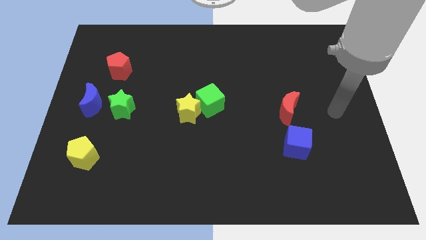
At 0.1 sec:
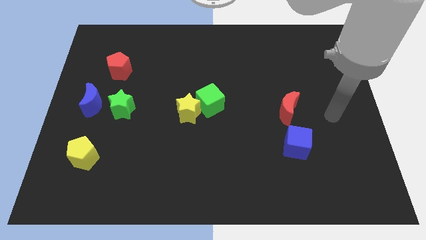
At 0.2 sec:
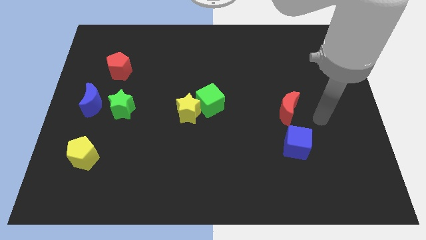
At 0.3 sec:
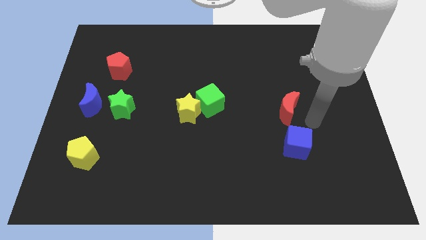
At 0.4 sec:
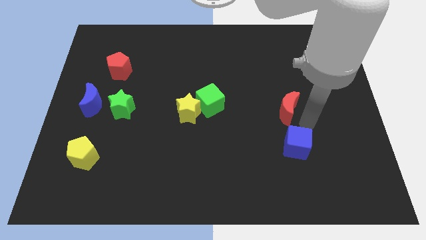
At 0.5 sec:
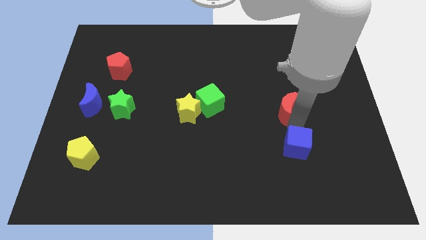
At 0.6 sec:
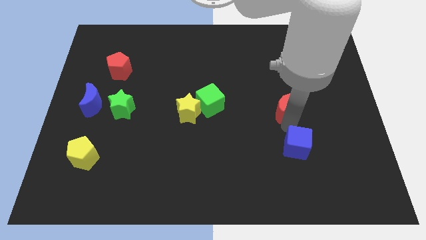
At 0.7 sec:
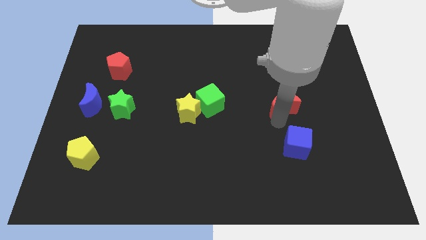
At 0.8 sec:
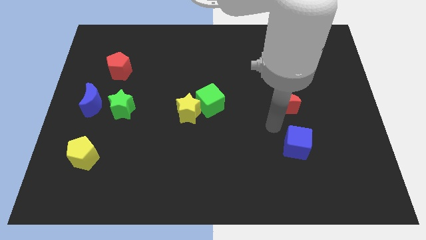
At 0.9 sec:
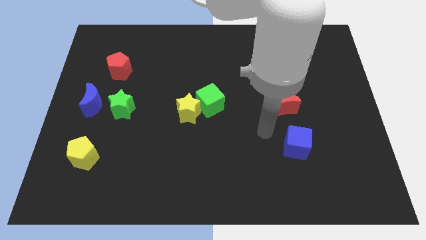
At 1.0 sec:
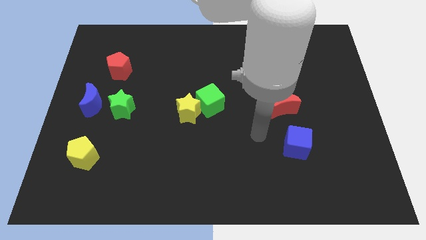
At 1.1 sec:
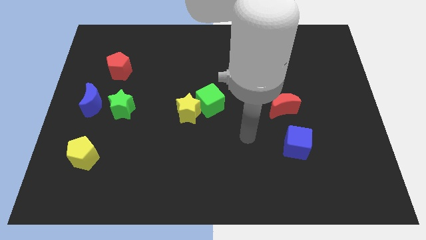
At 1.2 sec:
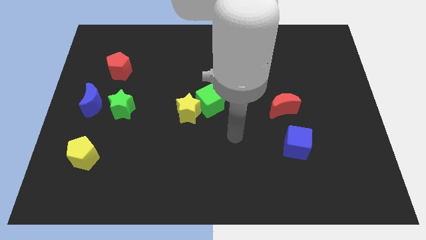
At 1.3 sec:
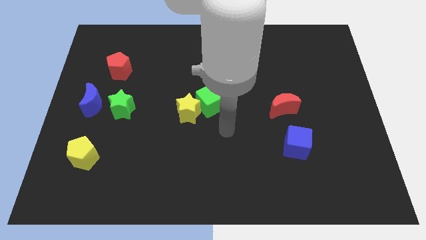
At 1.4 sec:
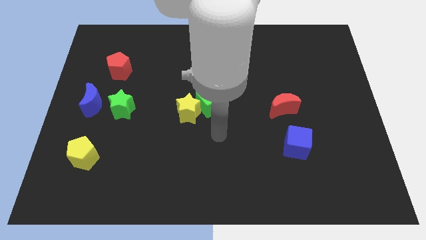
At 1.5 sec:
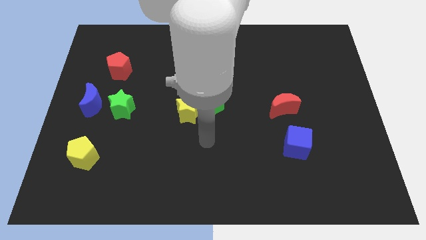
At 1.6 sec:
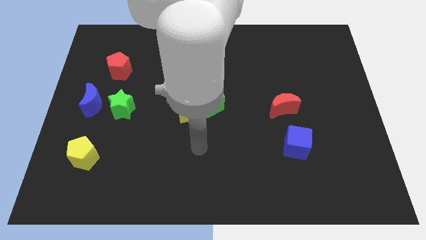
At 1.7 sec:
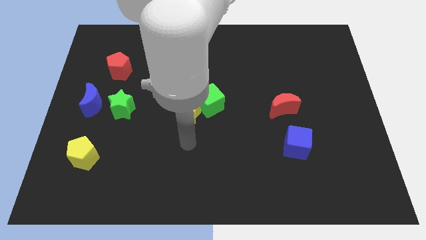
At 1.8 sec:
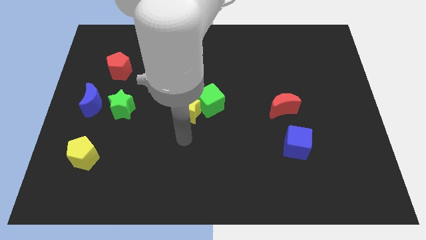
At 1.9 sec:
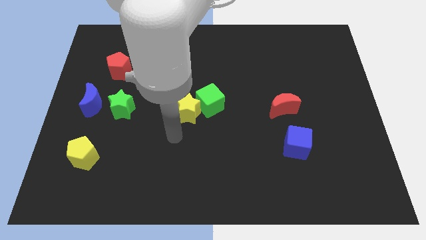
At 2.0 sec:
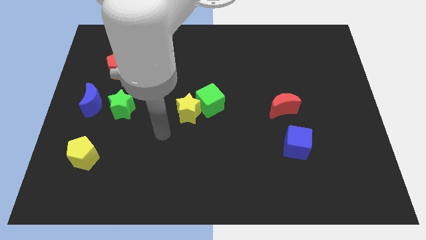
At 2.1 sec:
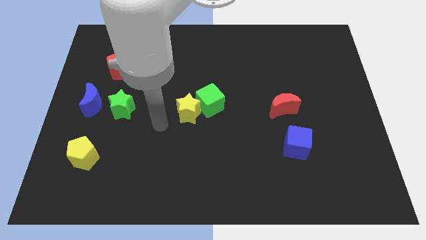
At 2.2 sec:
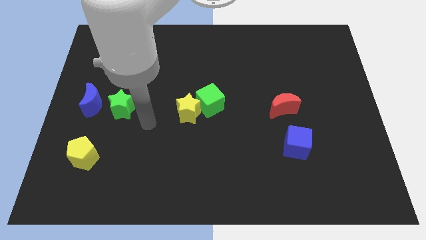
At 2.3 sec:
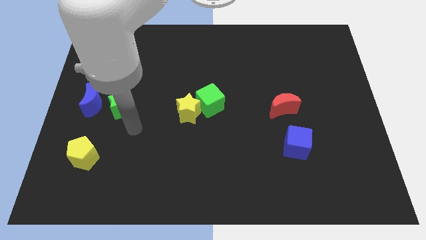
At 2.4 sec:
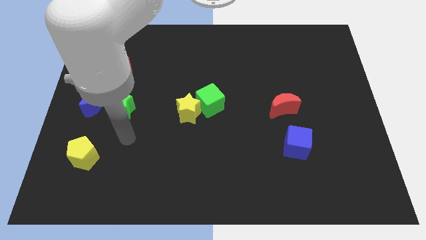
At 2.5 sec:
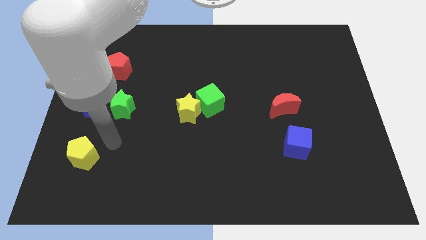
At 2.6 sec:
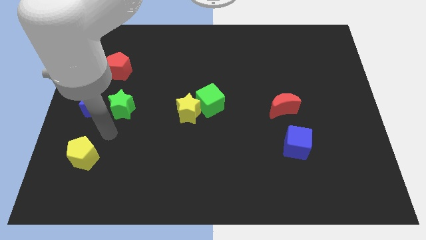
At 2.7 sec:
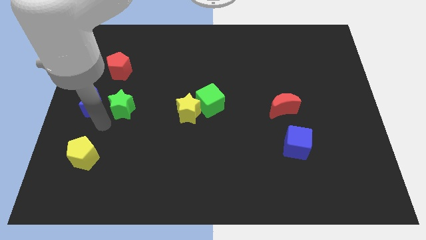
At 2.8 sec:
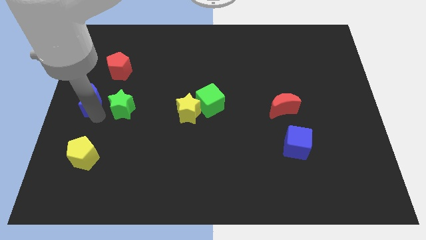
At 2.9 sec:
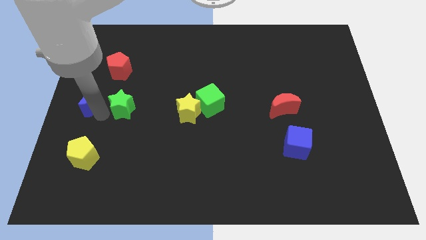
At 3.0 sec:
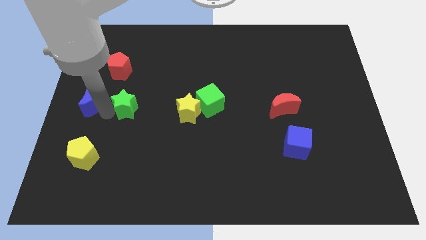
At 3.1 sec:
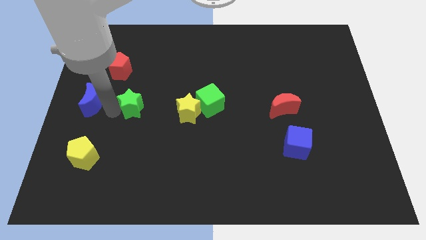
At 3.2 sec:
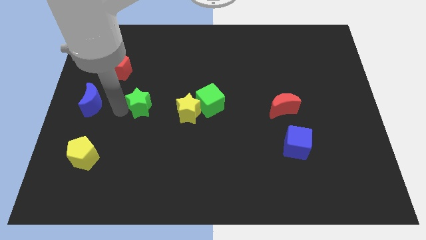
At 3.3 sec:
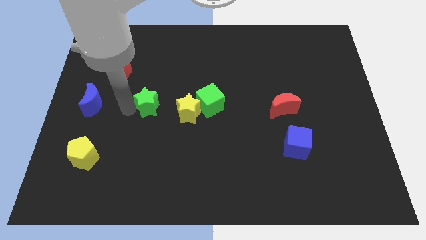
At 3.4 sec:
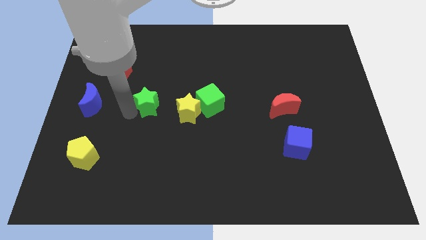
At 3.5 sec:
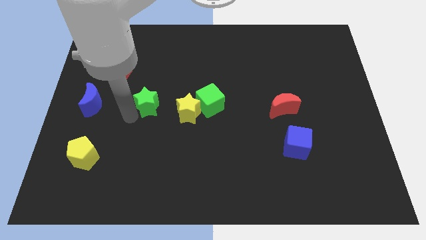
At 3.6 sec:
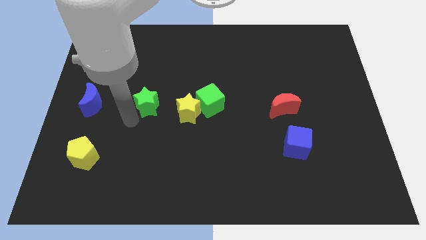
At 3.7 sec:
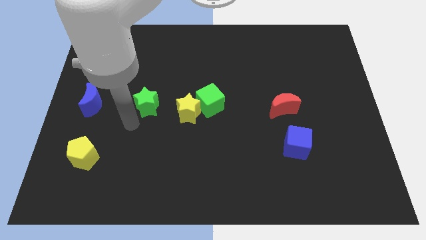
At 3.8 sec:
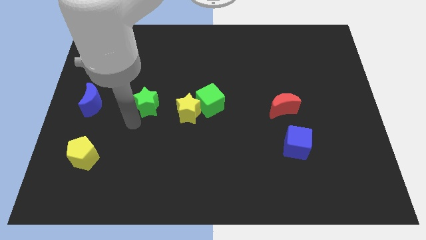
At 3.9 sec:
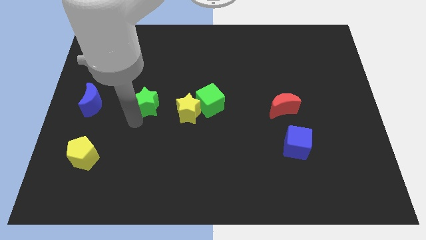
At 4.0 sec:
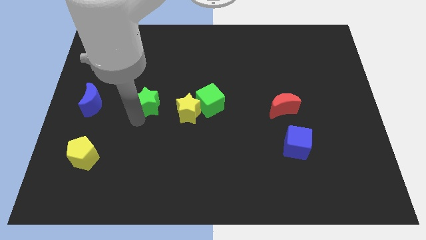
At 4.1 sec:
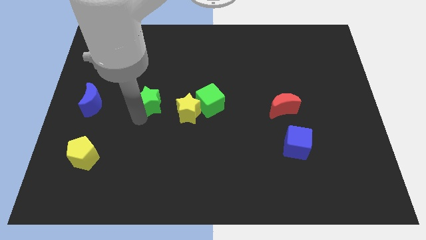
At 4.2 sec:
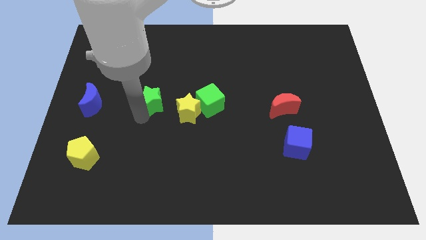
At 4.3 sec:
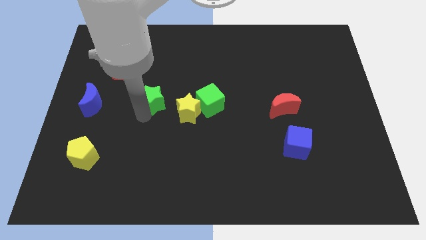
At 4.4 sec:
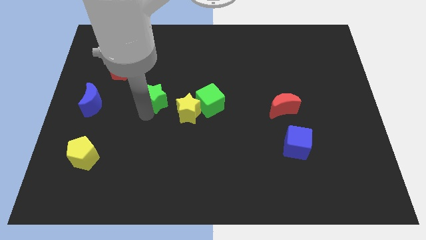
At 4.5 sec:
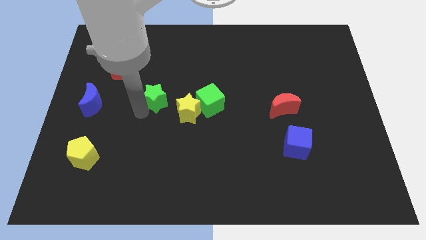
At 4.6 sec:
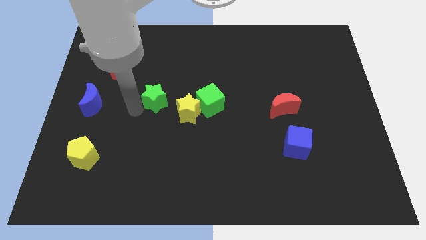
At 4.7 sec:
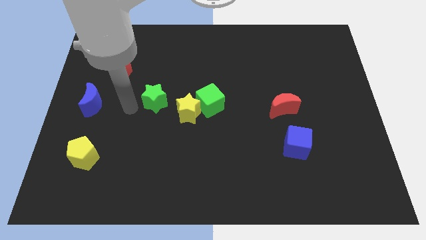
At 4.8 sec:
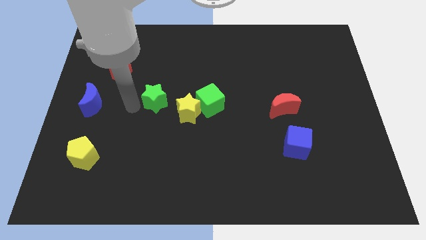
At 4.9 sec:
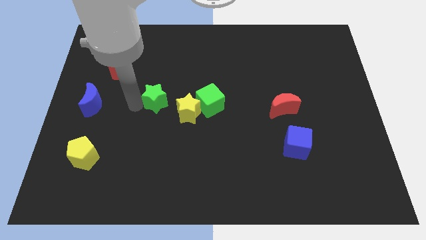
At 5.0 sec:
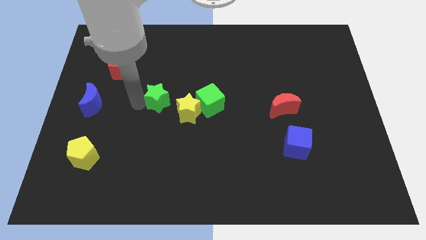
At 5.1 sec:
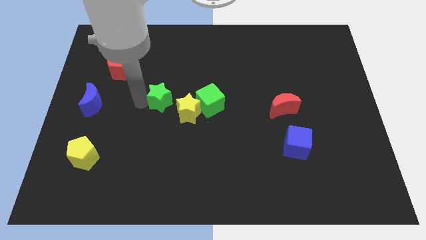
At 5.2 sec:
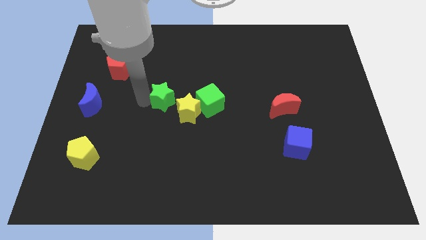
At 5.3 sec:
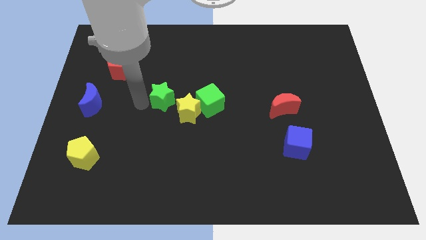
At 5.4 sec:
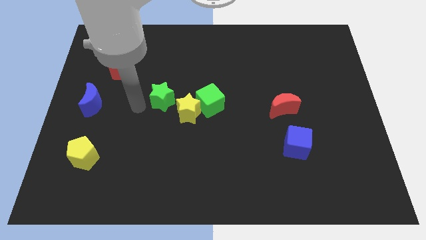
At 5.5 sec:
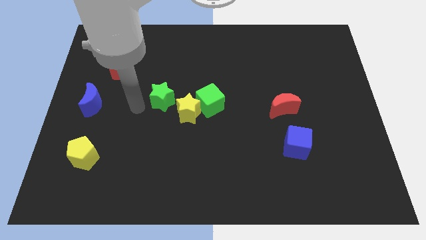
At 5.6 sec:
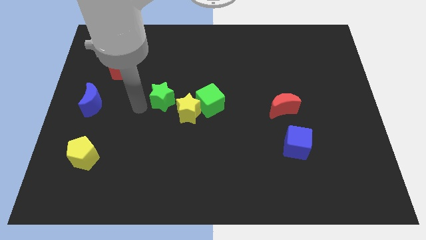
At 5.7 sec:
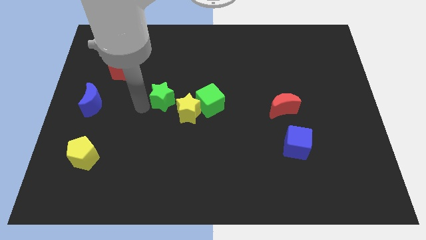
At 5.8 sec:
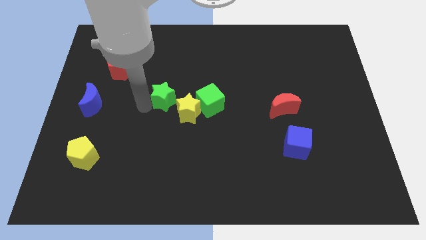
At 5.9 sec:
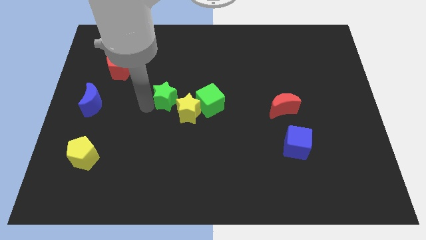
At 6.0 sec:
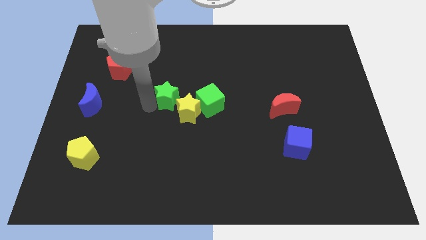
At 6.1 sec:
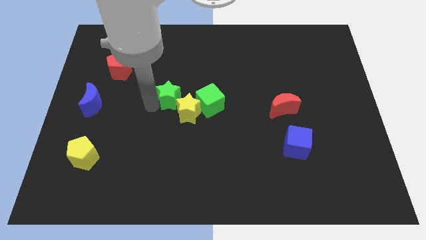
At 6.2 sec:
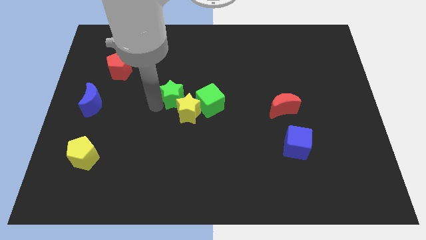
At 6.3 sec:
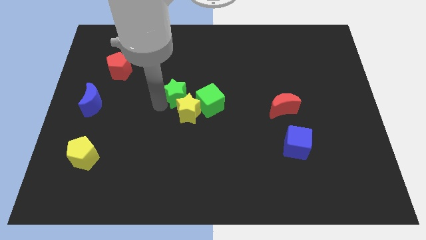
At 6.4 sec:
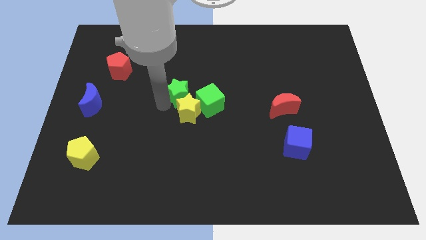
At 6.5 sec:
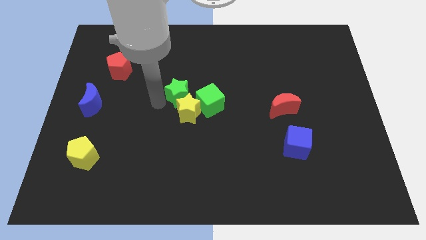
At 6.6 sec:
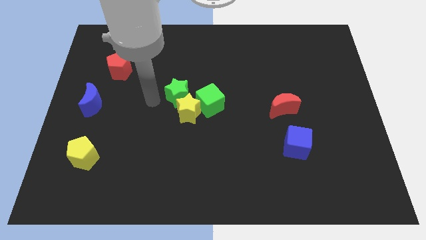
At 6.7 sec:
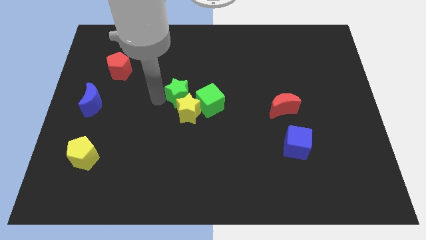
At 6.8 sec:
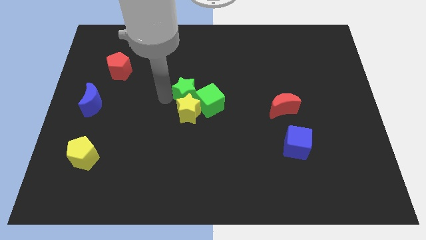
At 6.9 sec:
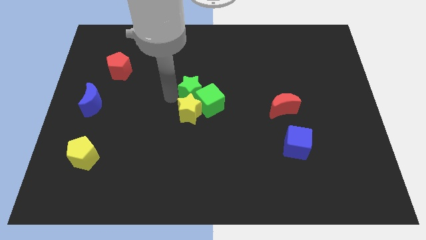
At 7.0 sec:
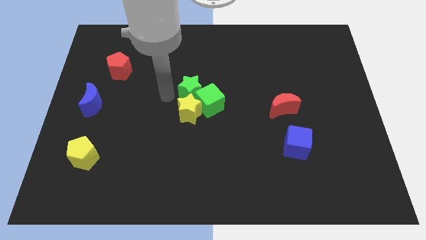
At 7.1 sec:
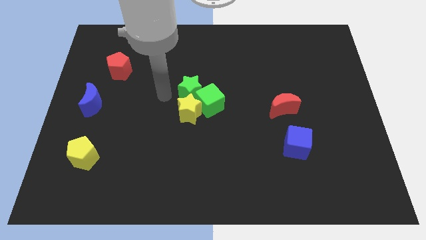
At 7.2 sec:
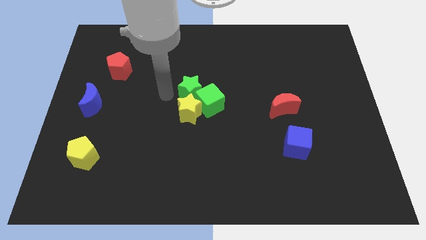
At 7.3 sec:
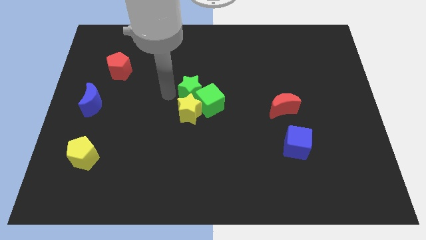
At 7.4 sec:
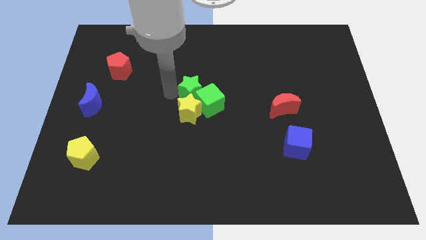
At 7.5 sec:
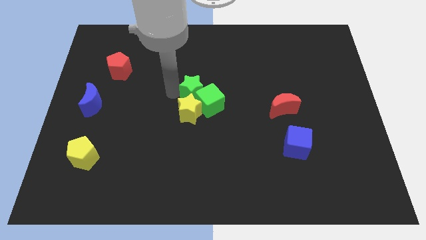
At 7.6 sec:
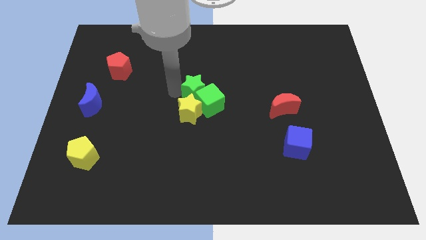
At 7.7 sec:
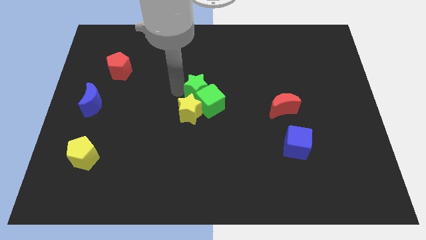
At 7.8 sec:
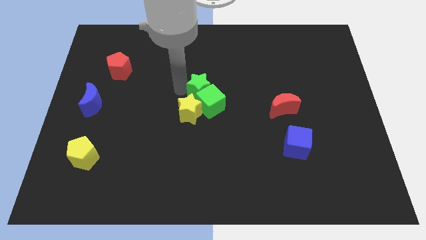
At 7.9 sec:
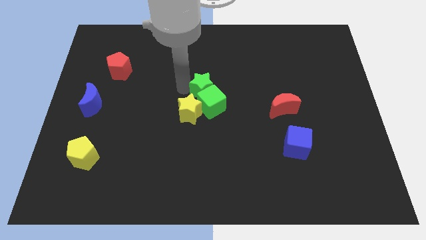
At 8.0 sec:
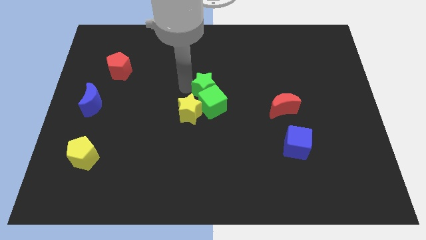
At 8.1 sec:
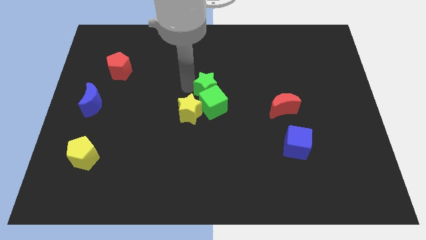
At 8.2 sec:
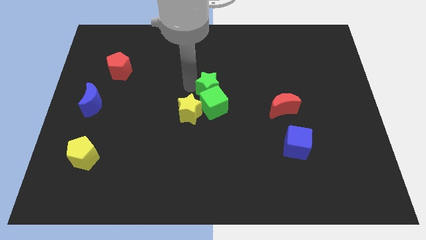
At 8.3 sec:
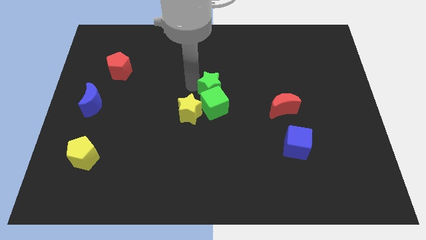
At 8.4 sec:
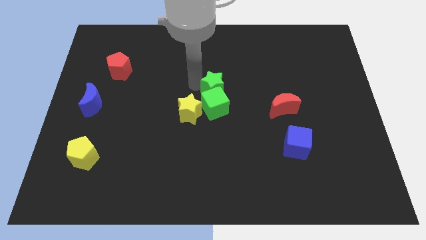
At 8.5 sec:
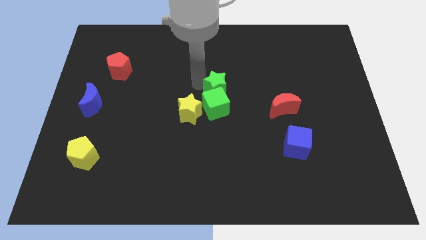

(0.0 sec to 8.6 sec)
move the green star right
